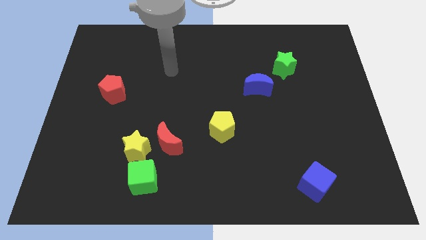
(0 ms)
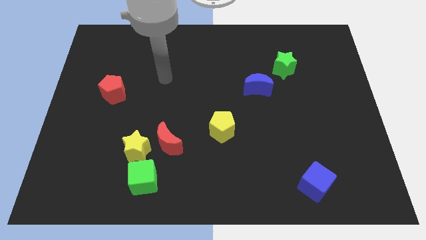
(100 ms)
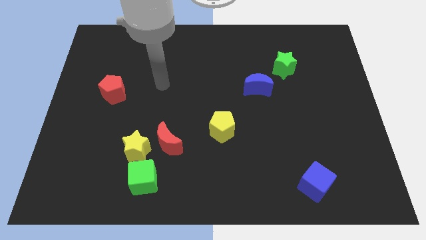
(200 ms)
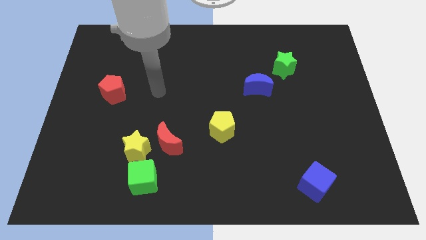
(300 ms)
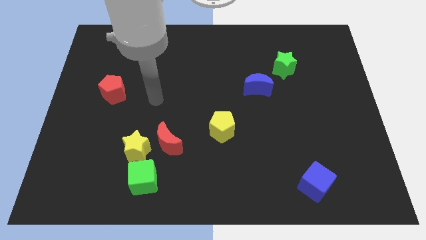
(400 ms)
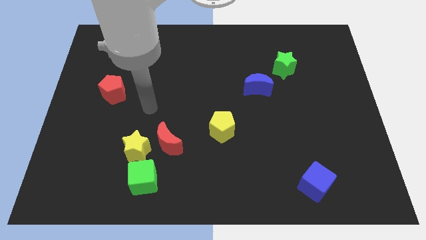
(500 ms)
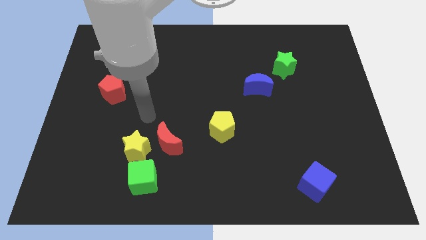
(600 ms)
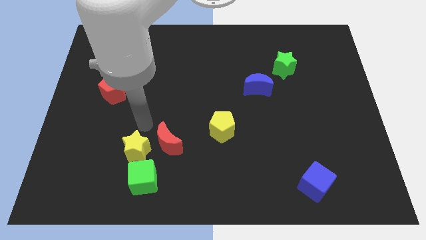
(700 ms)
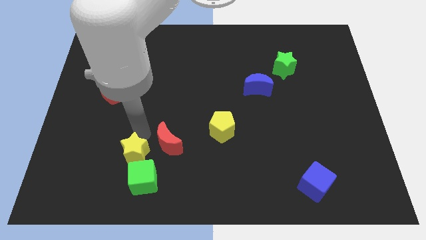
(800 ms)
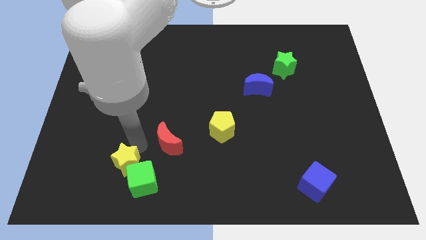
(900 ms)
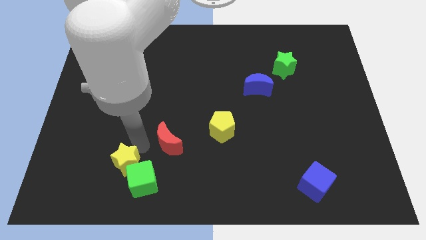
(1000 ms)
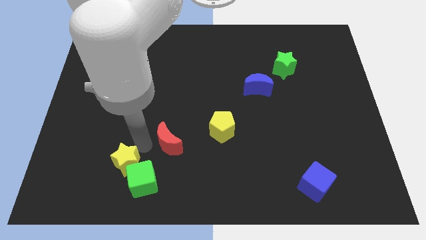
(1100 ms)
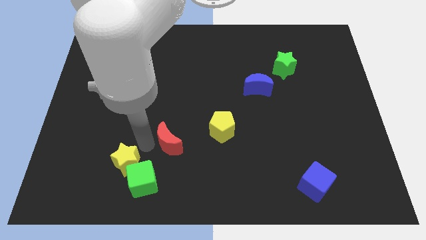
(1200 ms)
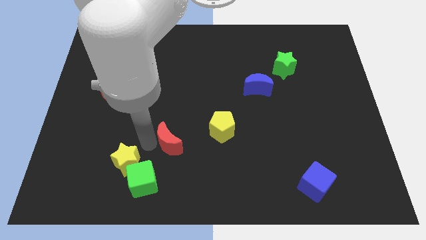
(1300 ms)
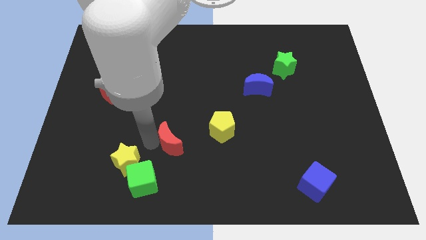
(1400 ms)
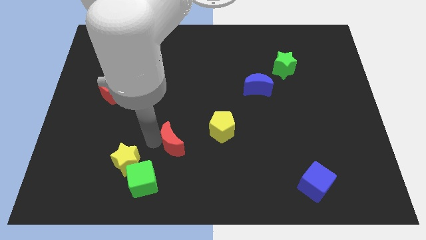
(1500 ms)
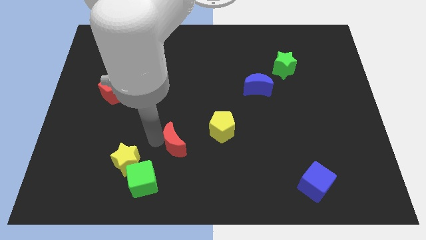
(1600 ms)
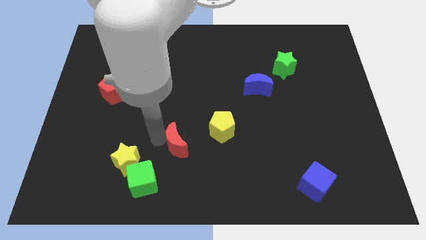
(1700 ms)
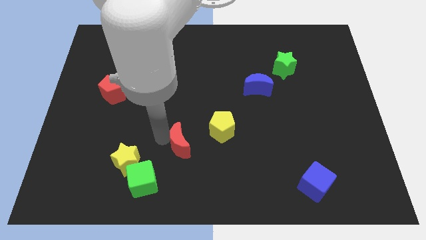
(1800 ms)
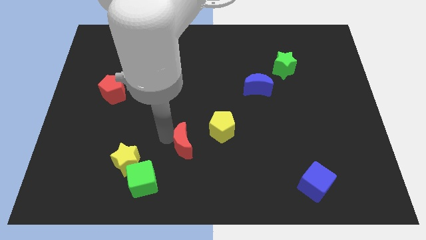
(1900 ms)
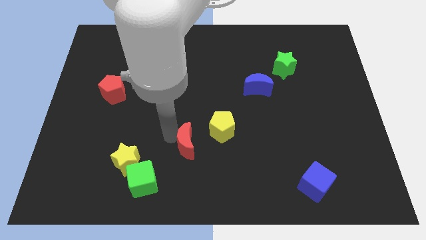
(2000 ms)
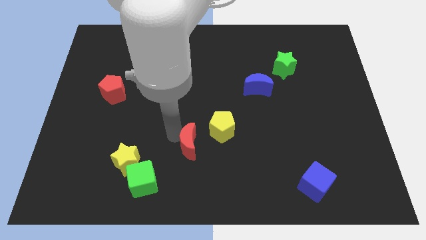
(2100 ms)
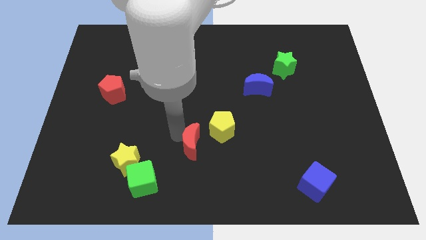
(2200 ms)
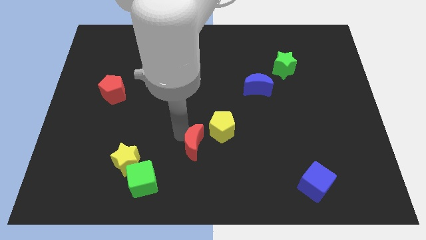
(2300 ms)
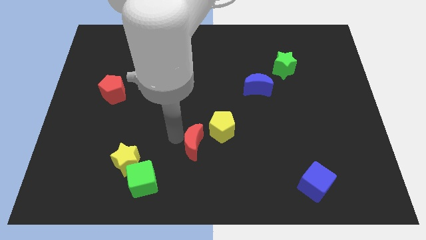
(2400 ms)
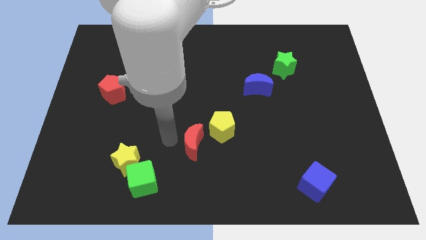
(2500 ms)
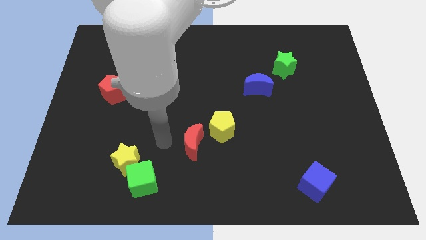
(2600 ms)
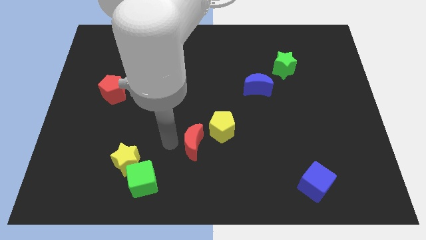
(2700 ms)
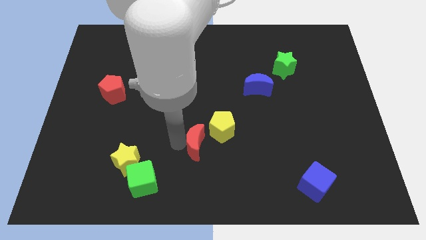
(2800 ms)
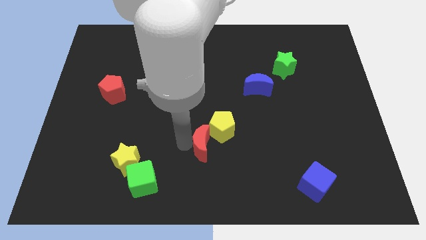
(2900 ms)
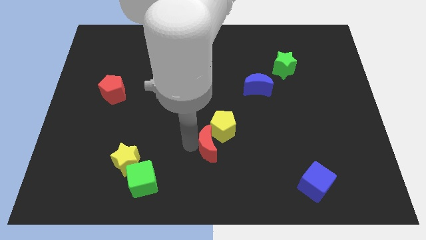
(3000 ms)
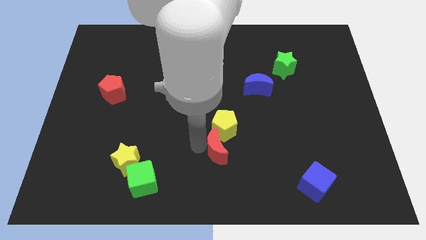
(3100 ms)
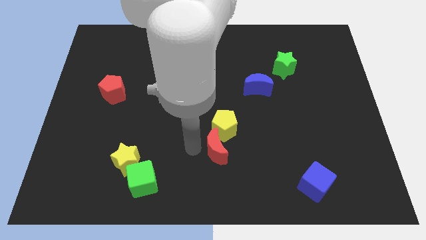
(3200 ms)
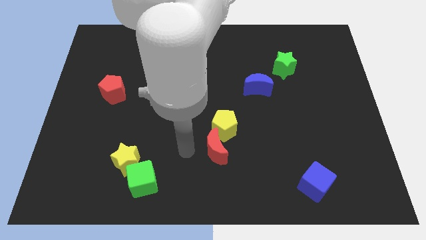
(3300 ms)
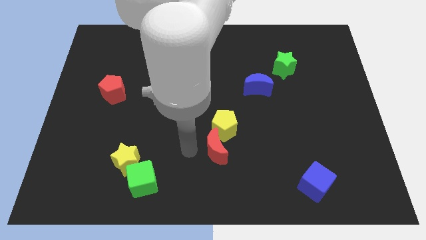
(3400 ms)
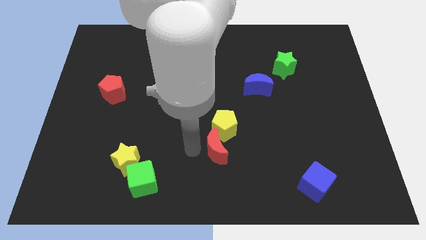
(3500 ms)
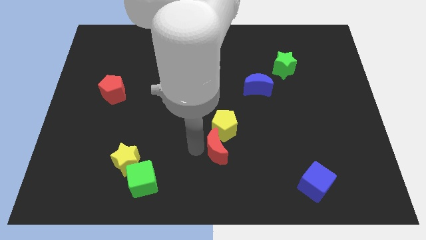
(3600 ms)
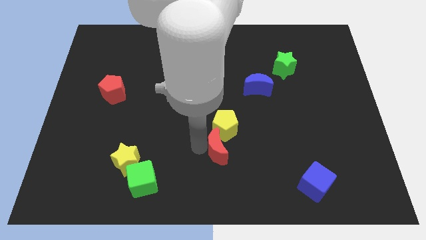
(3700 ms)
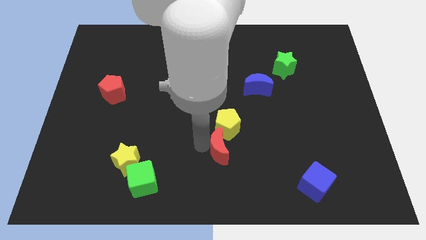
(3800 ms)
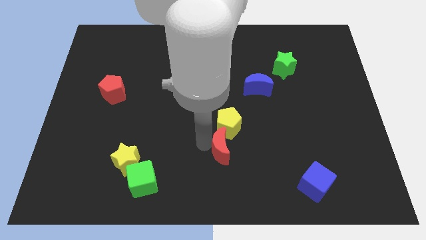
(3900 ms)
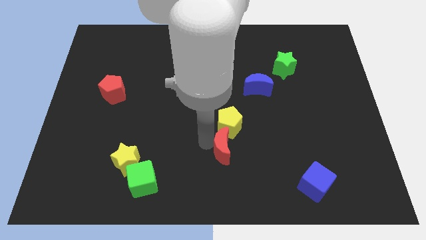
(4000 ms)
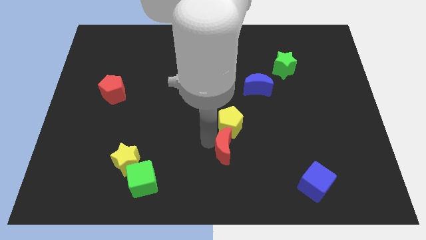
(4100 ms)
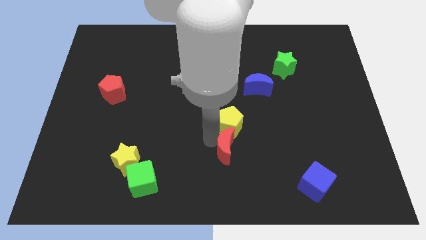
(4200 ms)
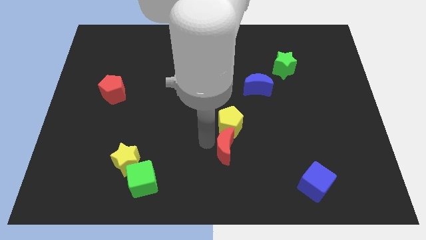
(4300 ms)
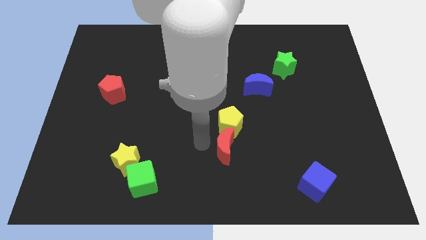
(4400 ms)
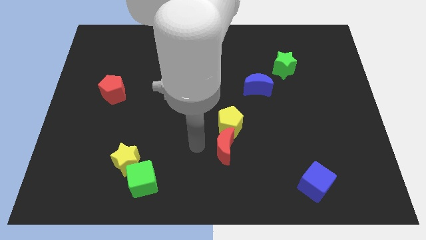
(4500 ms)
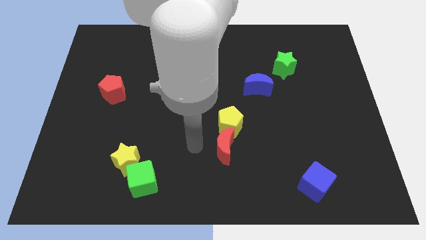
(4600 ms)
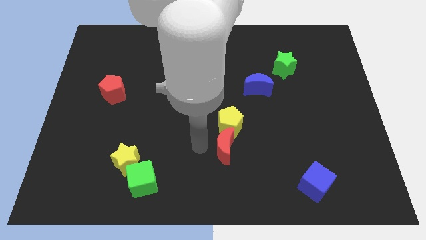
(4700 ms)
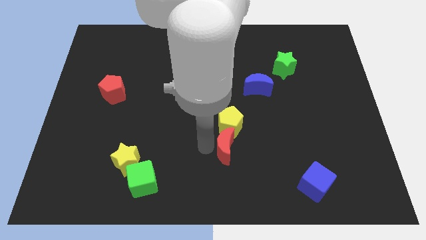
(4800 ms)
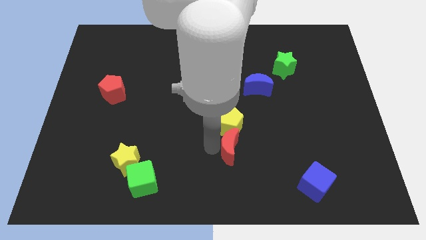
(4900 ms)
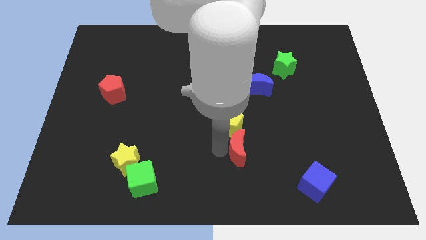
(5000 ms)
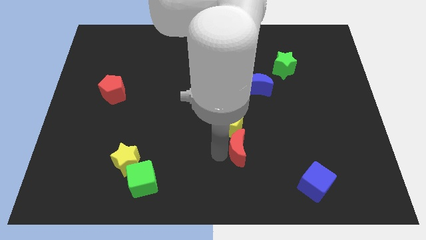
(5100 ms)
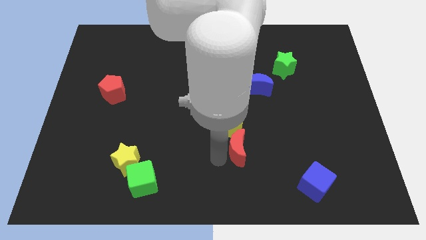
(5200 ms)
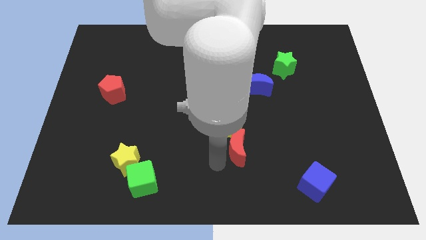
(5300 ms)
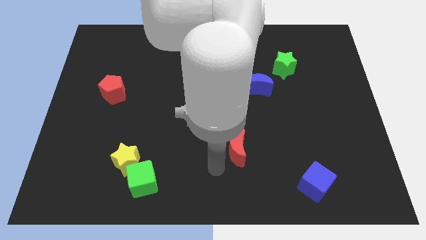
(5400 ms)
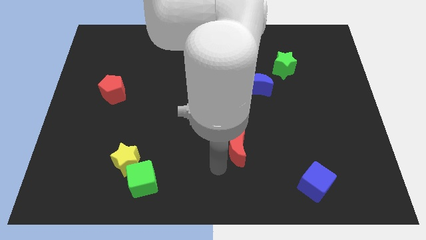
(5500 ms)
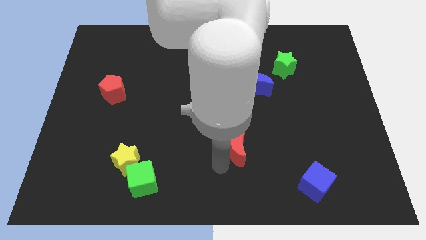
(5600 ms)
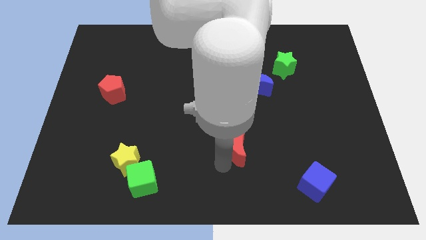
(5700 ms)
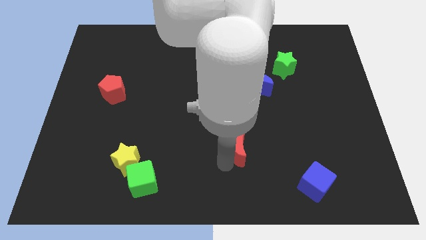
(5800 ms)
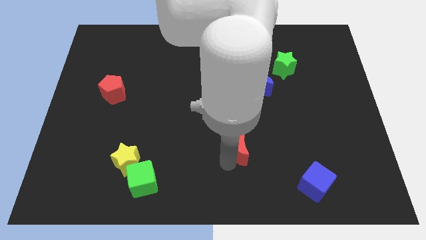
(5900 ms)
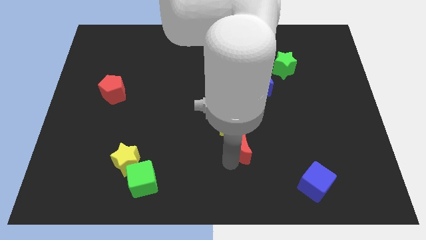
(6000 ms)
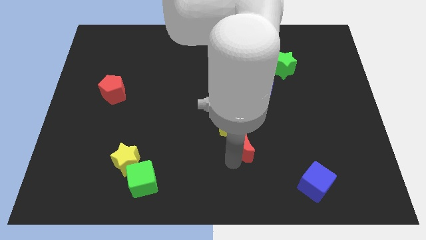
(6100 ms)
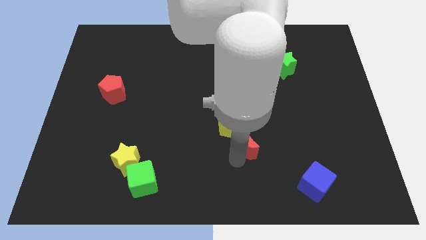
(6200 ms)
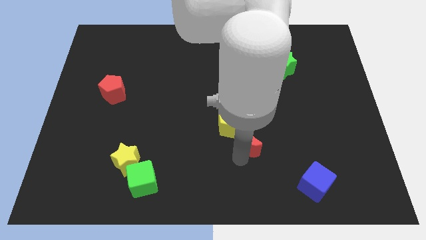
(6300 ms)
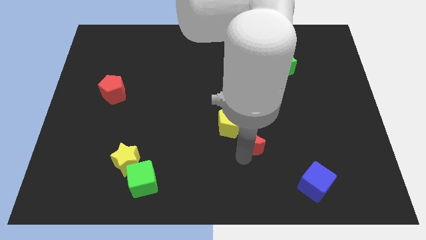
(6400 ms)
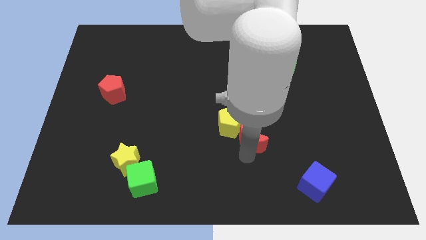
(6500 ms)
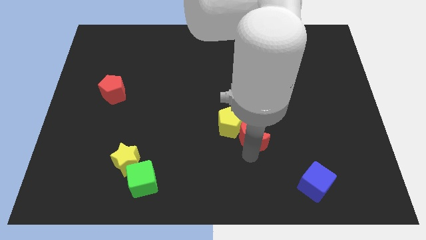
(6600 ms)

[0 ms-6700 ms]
slide the red moon to the bottom side of the blue moon
